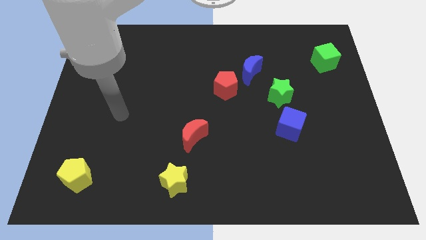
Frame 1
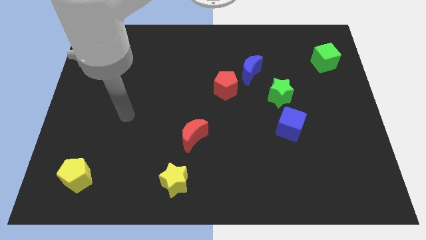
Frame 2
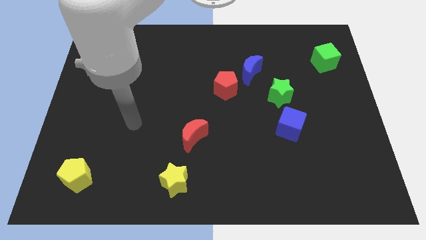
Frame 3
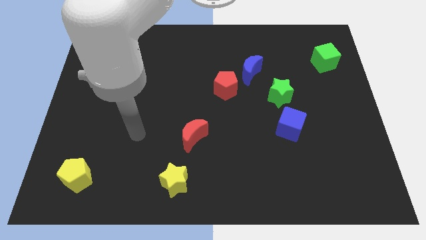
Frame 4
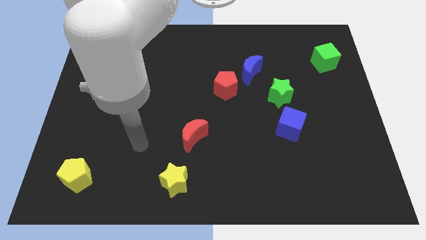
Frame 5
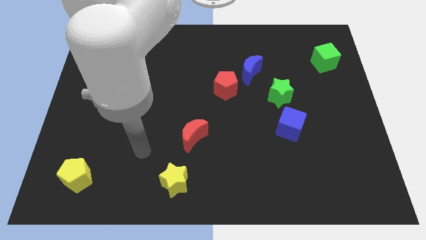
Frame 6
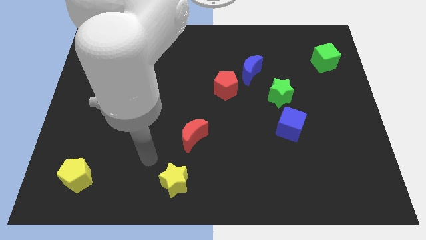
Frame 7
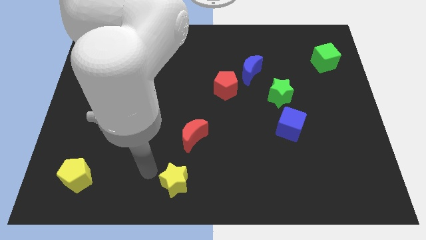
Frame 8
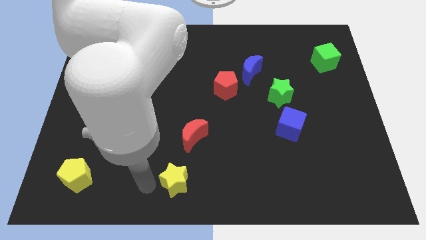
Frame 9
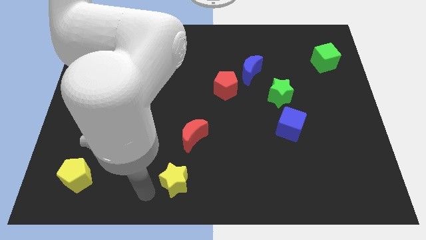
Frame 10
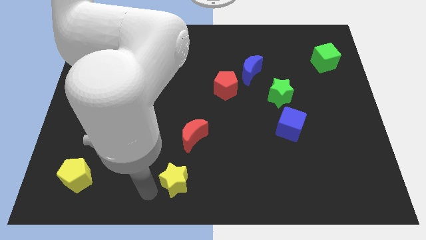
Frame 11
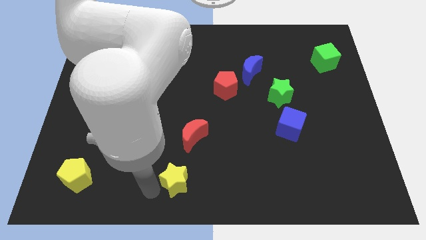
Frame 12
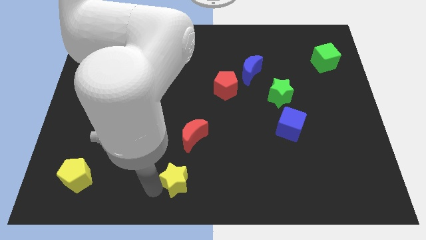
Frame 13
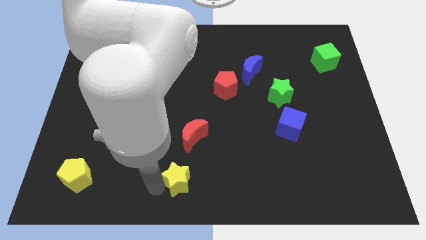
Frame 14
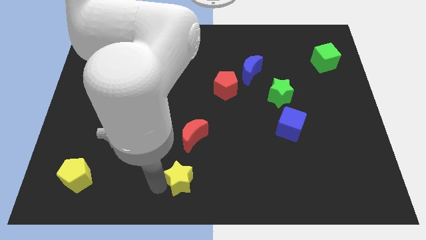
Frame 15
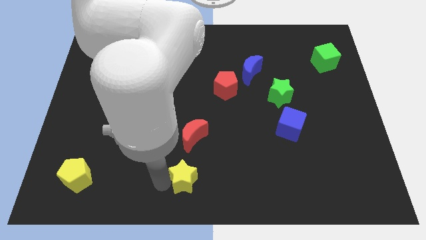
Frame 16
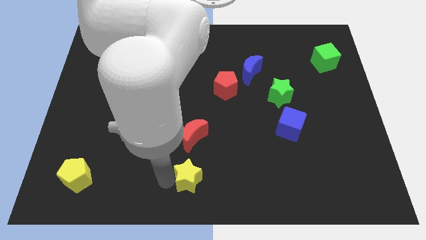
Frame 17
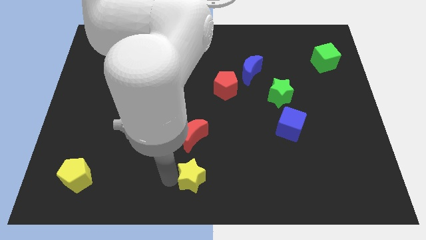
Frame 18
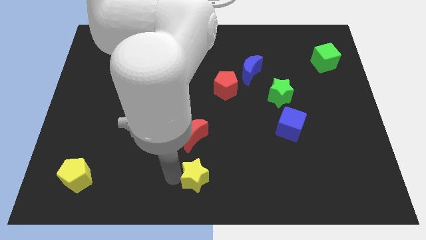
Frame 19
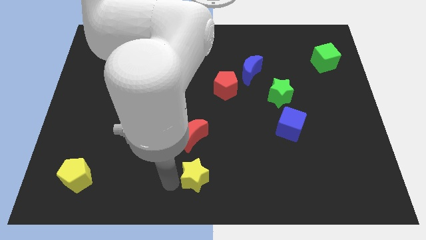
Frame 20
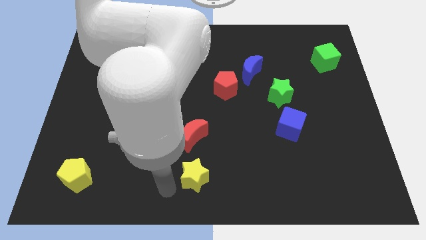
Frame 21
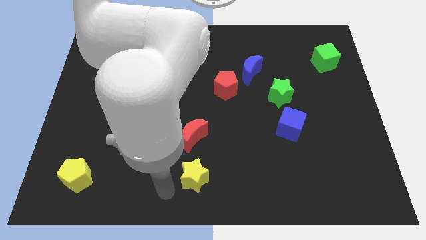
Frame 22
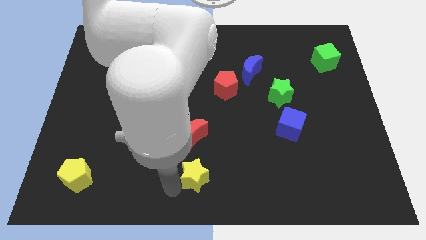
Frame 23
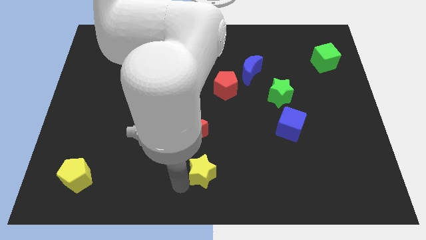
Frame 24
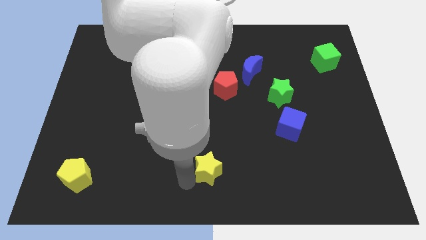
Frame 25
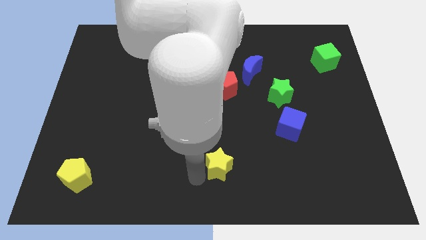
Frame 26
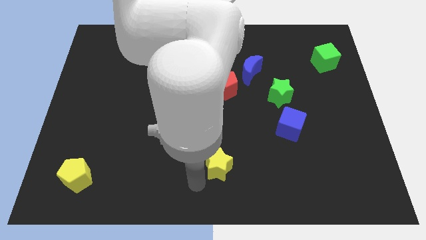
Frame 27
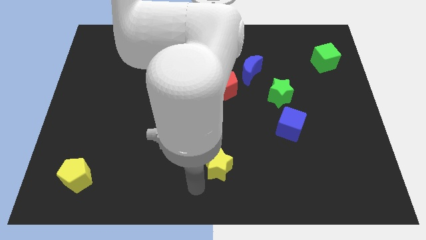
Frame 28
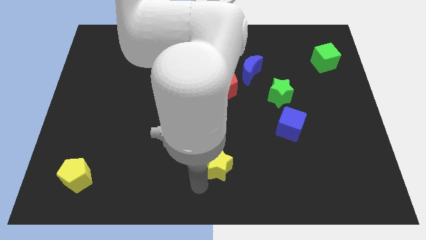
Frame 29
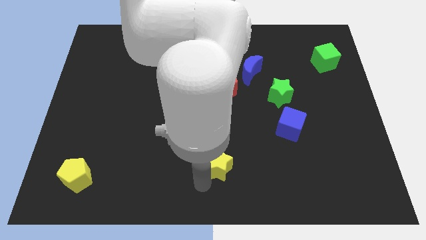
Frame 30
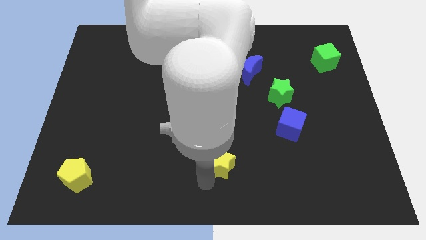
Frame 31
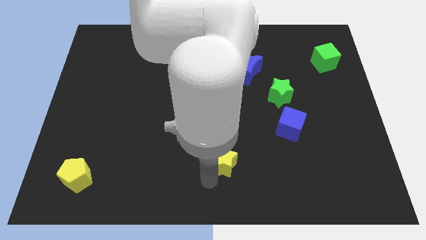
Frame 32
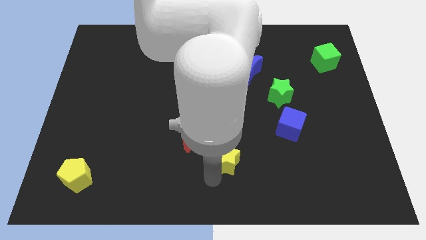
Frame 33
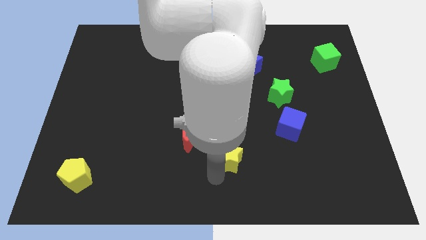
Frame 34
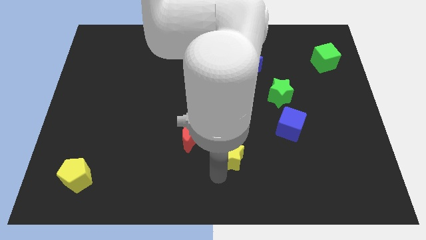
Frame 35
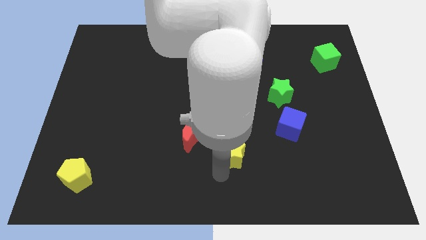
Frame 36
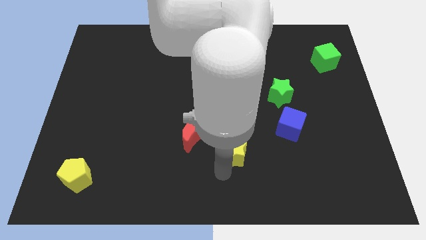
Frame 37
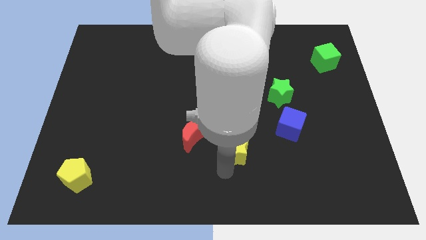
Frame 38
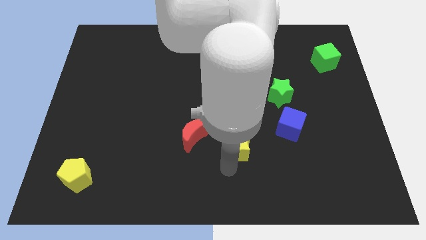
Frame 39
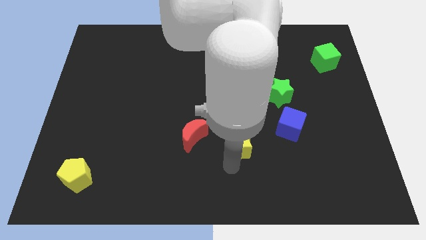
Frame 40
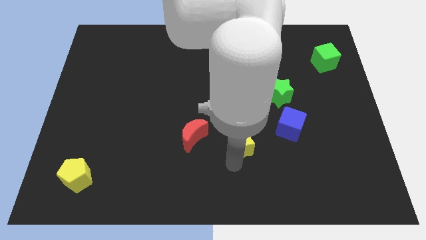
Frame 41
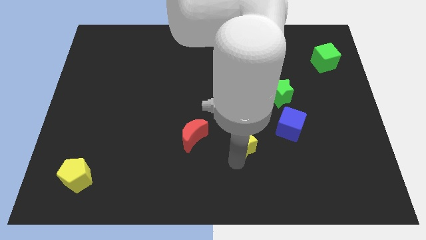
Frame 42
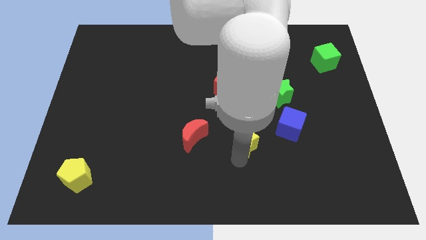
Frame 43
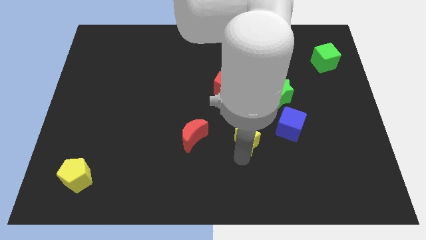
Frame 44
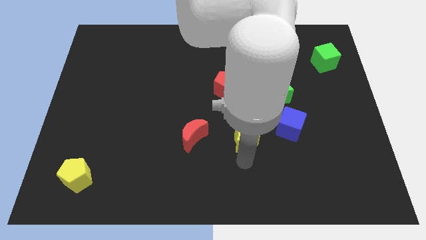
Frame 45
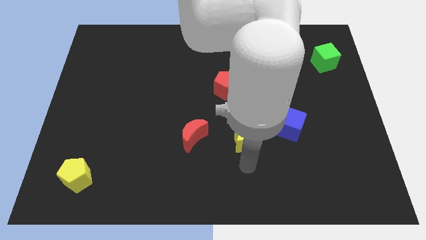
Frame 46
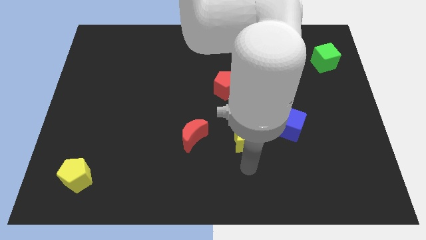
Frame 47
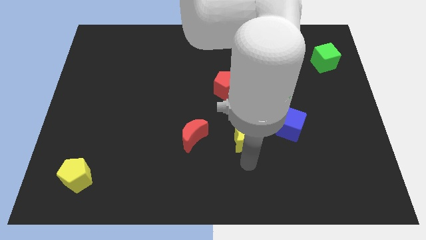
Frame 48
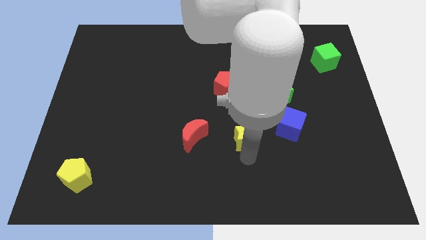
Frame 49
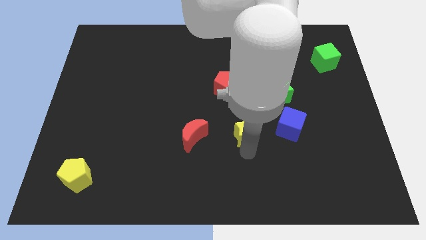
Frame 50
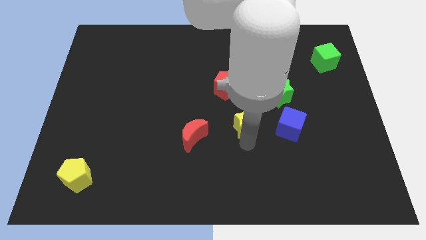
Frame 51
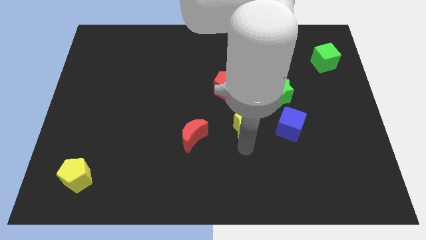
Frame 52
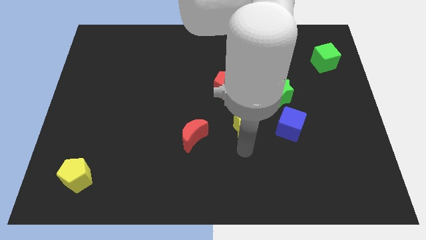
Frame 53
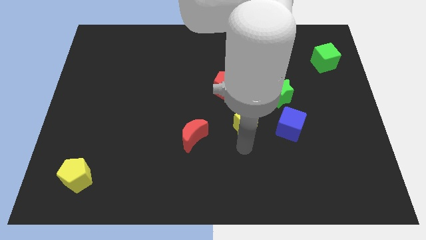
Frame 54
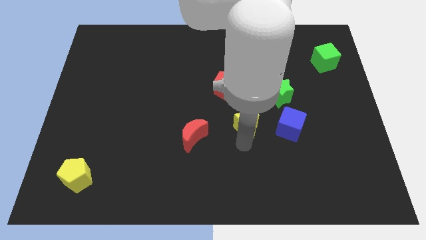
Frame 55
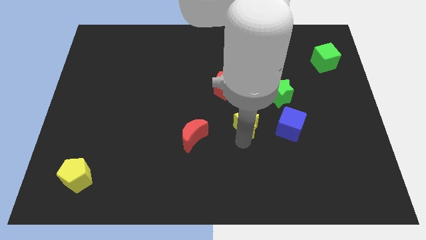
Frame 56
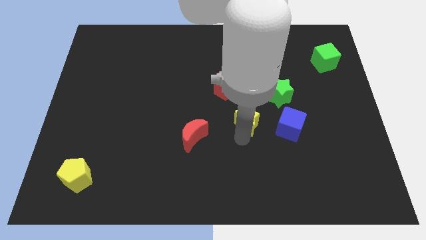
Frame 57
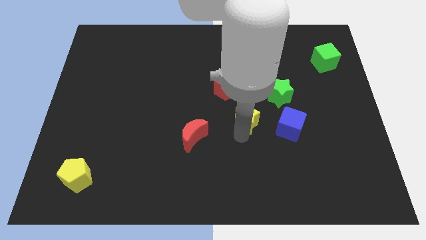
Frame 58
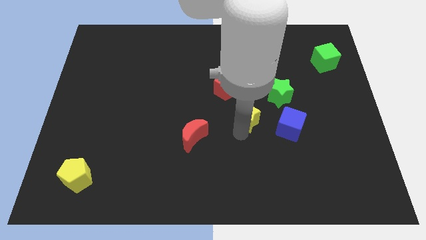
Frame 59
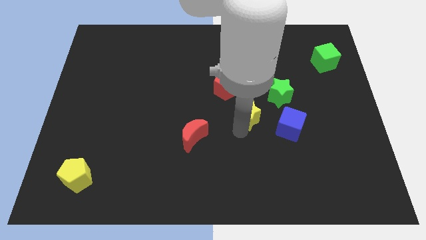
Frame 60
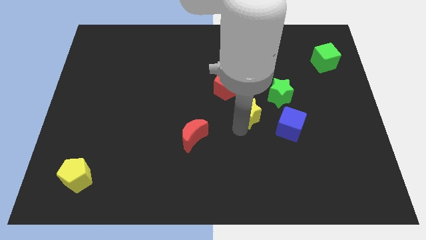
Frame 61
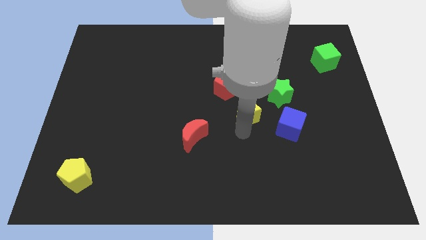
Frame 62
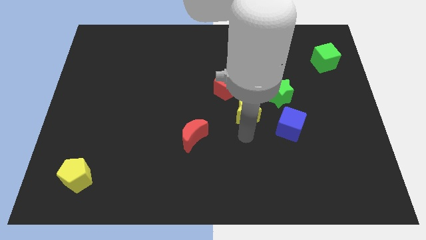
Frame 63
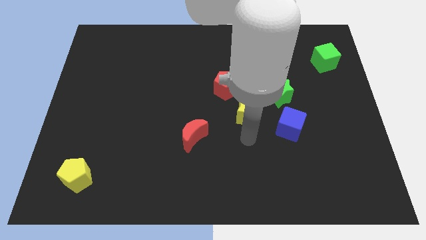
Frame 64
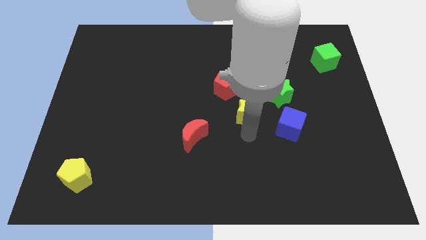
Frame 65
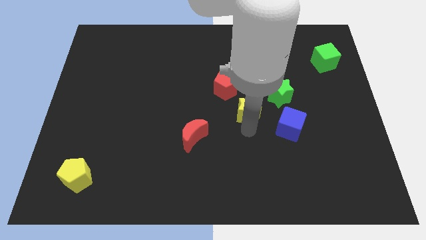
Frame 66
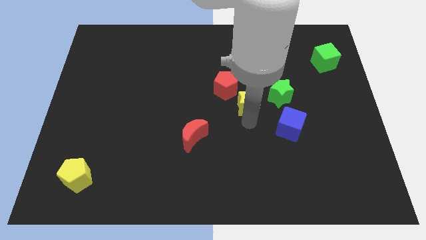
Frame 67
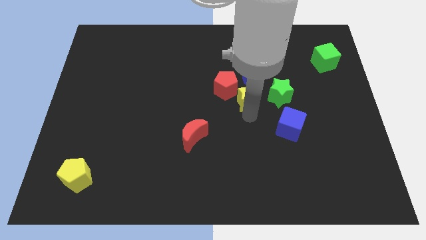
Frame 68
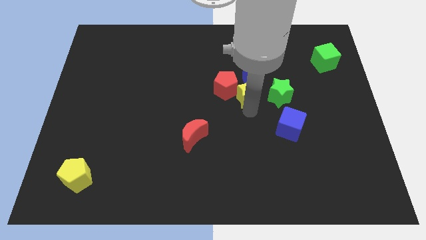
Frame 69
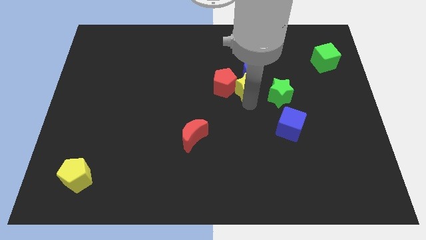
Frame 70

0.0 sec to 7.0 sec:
slide the yellow star close to the blue moon

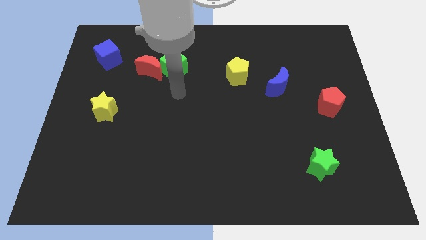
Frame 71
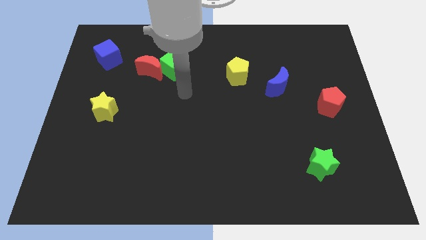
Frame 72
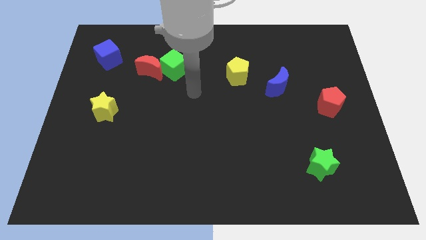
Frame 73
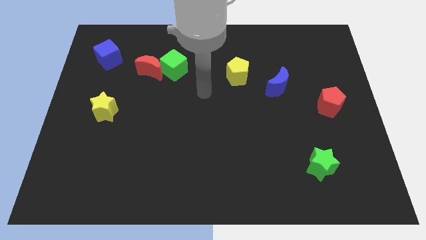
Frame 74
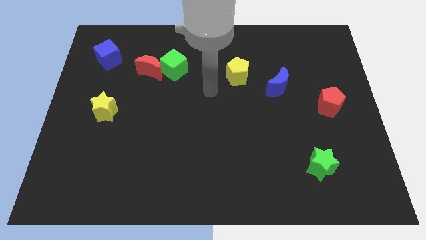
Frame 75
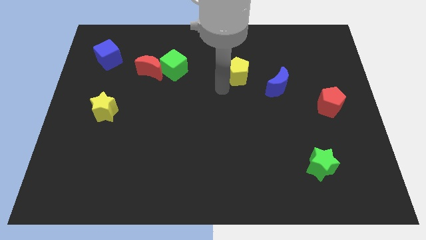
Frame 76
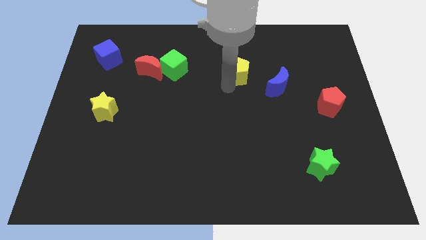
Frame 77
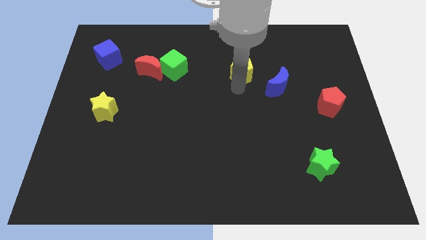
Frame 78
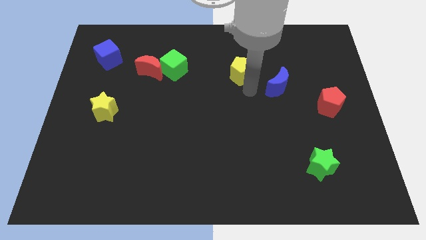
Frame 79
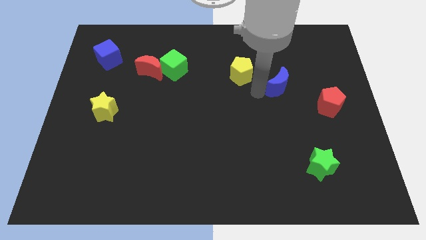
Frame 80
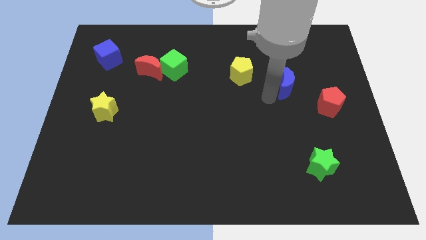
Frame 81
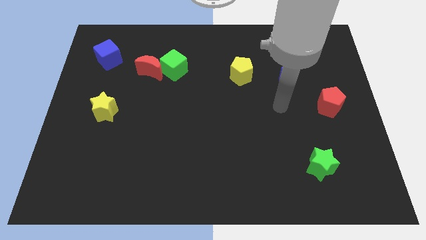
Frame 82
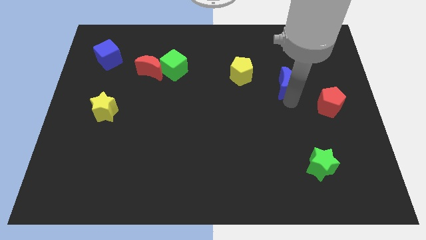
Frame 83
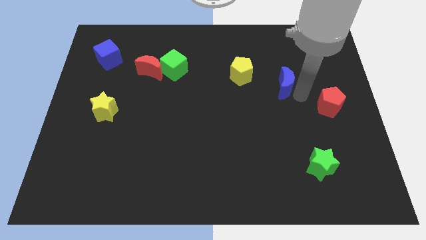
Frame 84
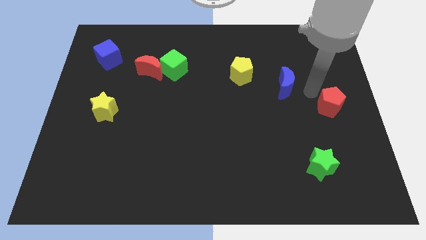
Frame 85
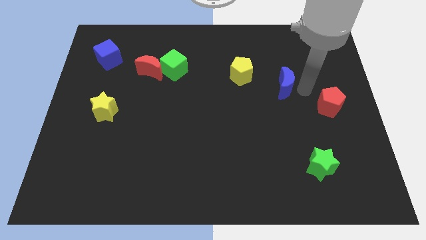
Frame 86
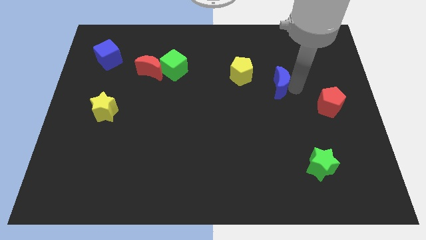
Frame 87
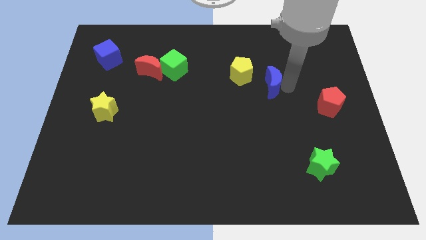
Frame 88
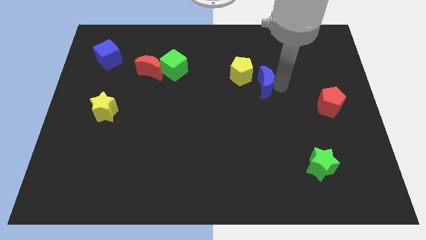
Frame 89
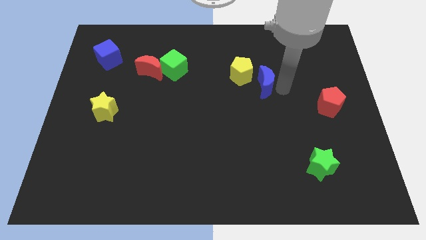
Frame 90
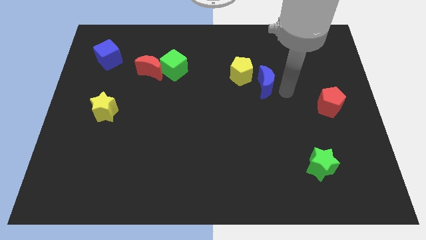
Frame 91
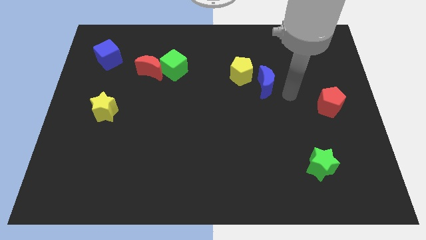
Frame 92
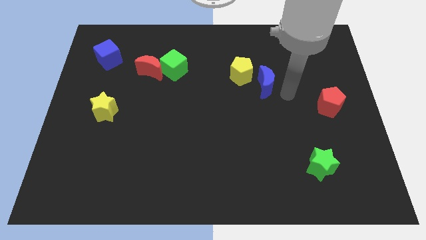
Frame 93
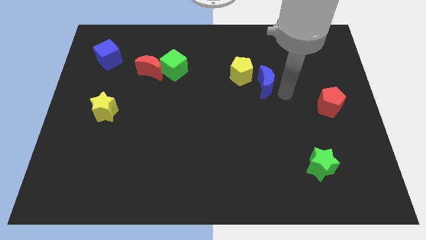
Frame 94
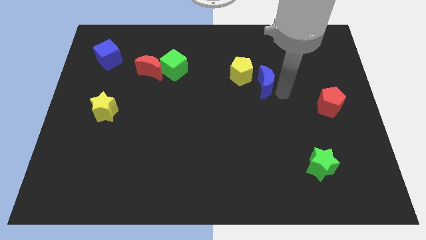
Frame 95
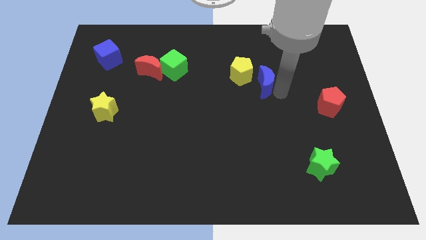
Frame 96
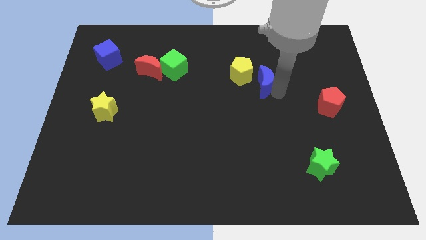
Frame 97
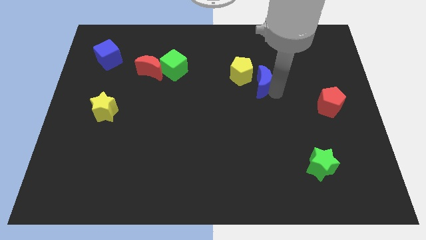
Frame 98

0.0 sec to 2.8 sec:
put the blue moon towards the yellow pentagon
